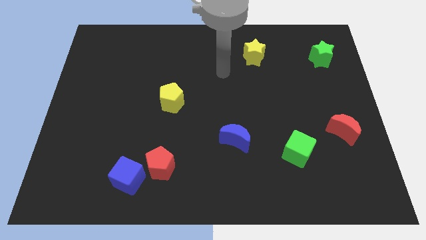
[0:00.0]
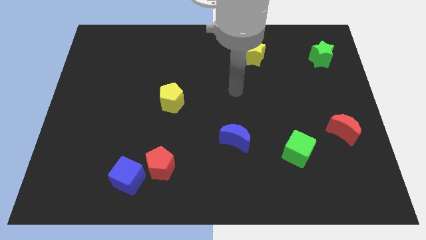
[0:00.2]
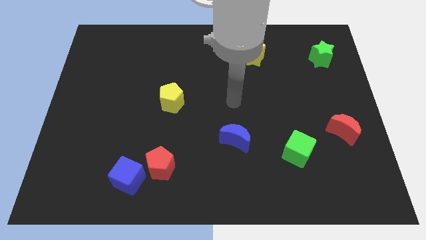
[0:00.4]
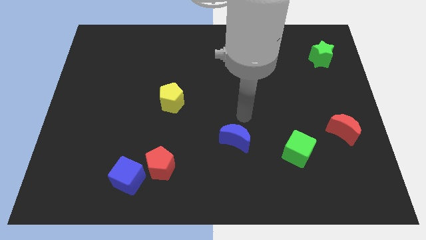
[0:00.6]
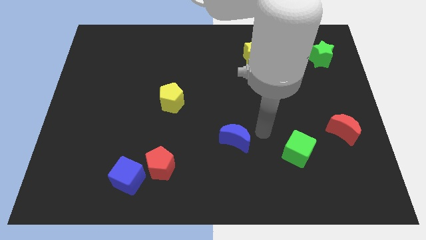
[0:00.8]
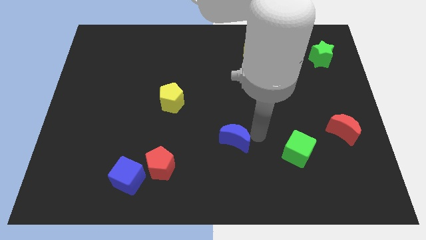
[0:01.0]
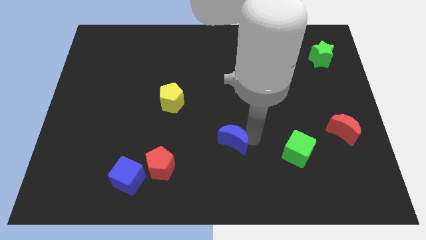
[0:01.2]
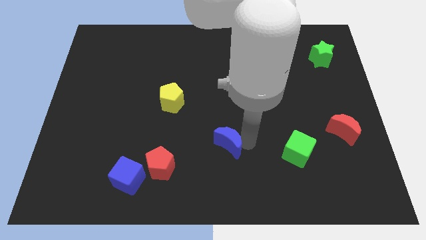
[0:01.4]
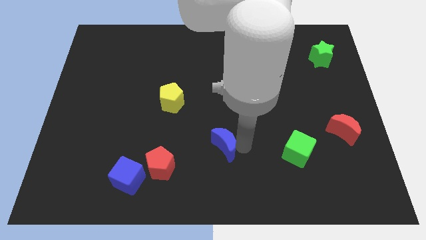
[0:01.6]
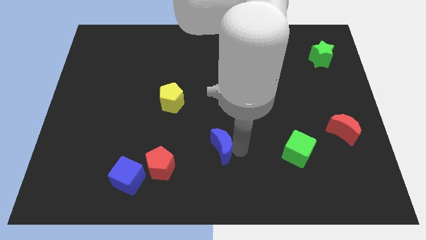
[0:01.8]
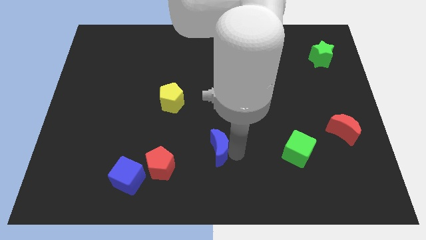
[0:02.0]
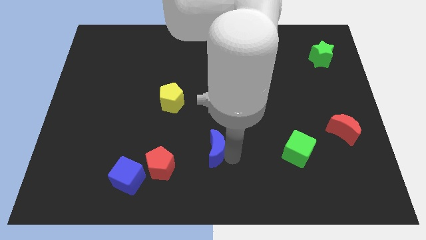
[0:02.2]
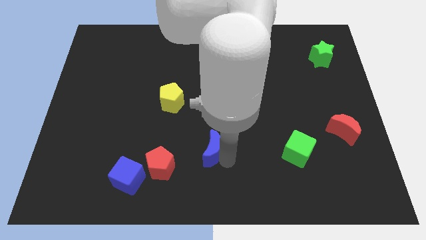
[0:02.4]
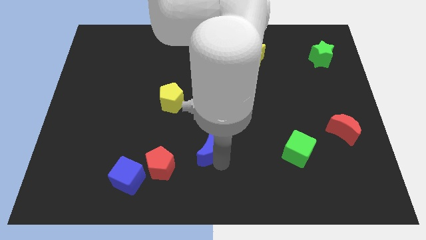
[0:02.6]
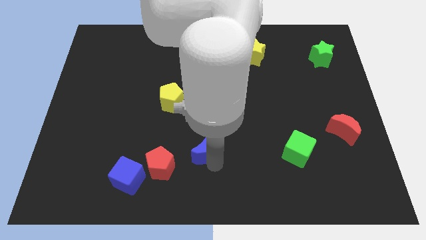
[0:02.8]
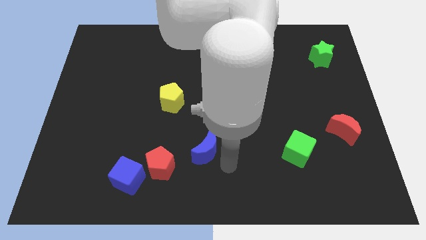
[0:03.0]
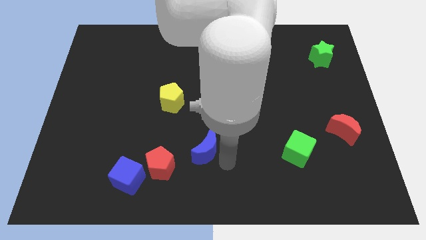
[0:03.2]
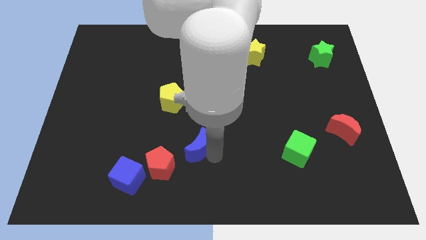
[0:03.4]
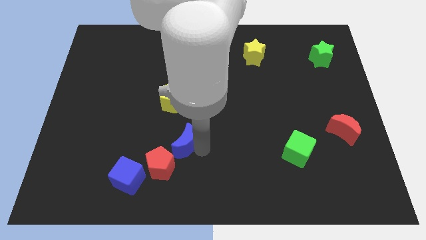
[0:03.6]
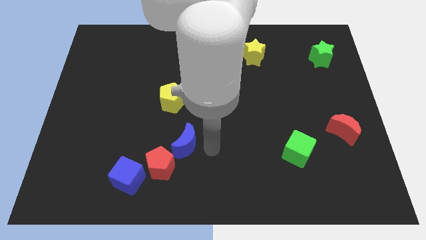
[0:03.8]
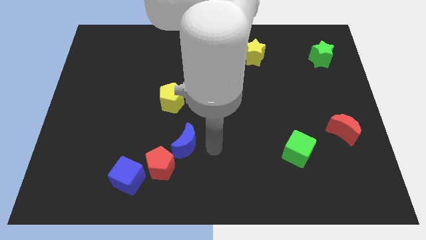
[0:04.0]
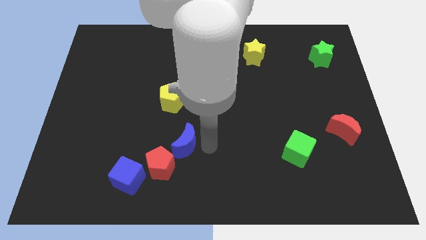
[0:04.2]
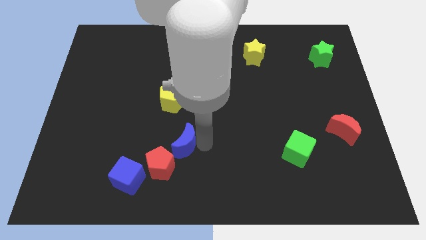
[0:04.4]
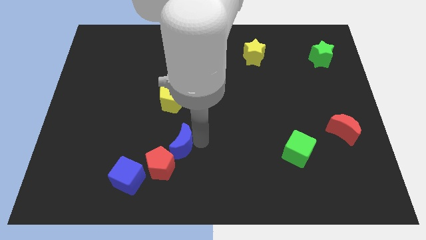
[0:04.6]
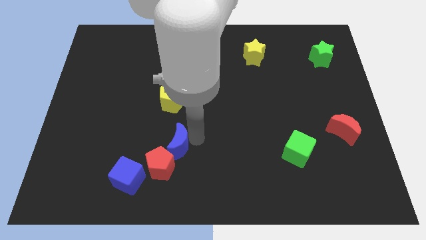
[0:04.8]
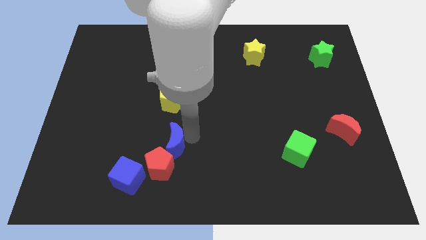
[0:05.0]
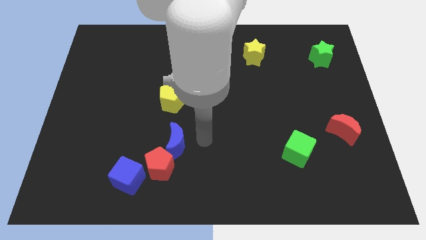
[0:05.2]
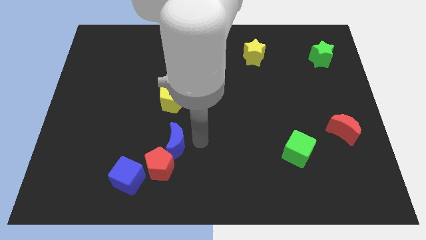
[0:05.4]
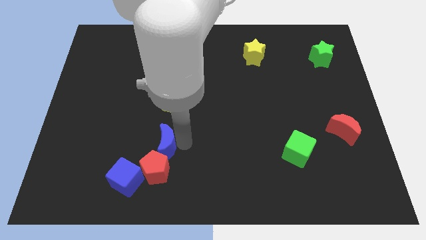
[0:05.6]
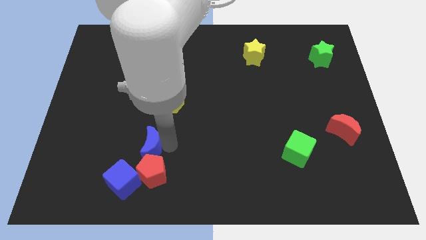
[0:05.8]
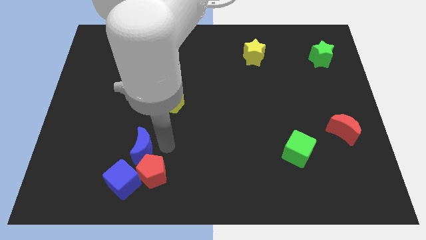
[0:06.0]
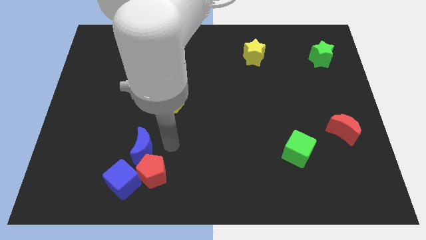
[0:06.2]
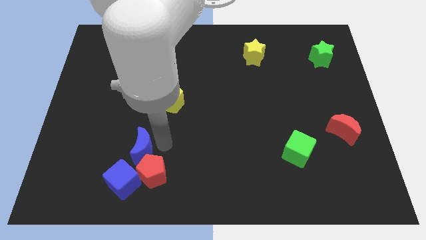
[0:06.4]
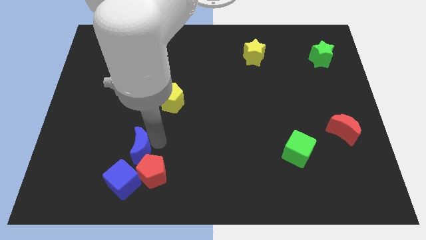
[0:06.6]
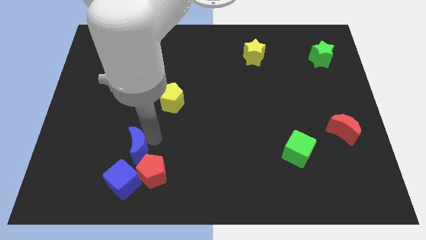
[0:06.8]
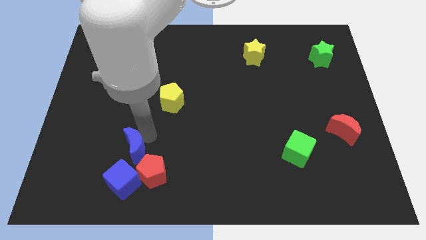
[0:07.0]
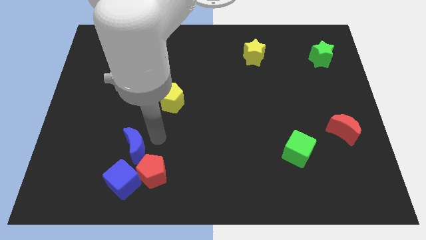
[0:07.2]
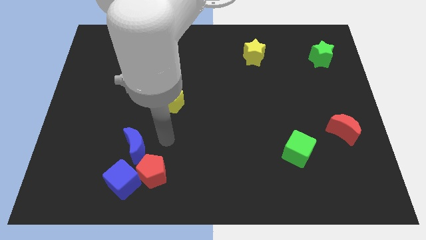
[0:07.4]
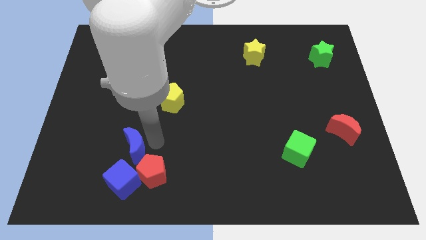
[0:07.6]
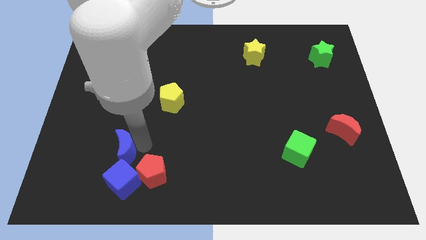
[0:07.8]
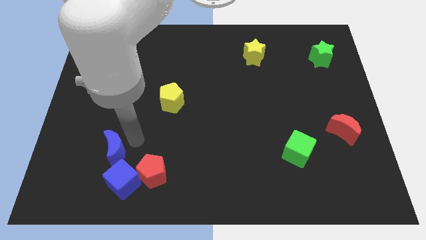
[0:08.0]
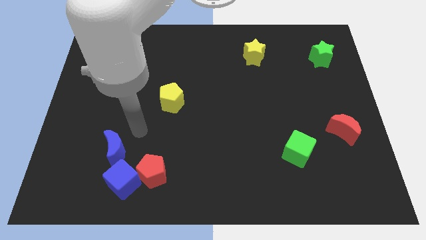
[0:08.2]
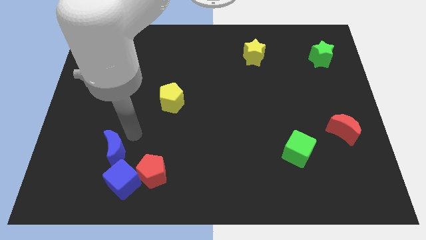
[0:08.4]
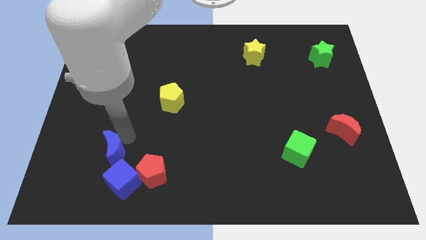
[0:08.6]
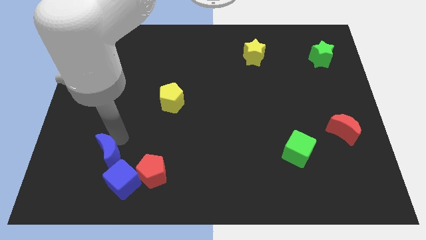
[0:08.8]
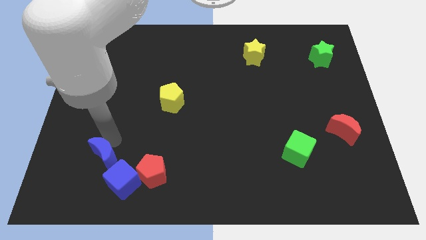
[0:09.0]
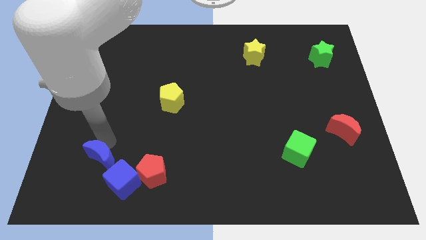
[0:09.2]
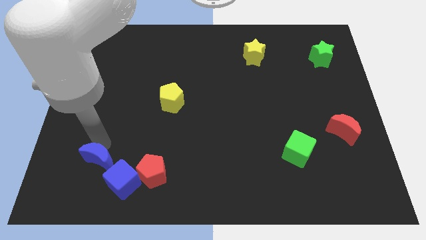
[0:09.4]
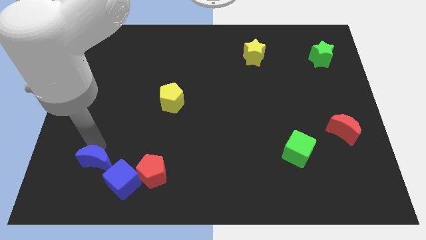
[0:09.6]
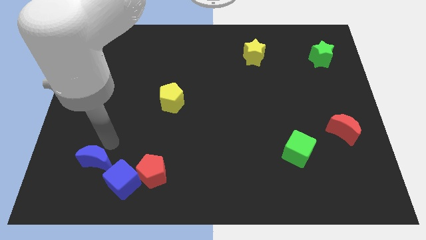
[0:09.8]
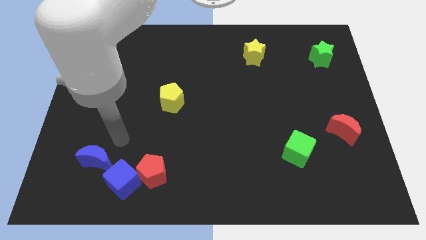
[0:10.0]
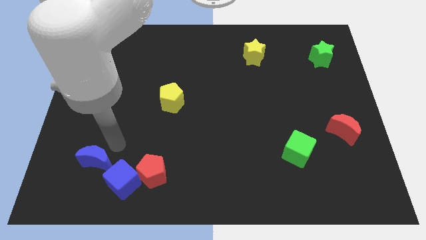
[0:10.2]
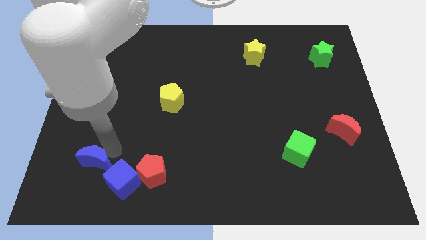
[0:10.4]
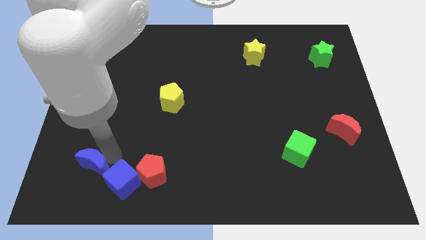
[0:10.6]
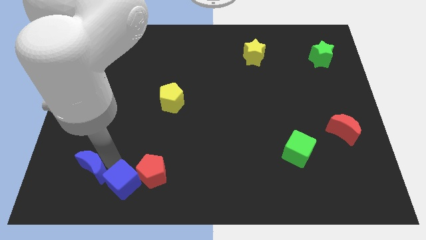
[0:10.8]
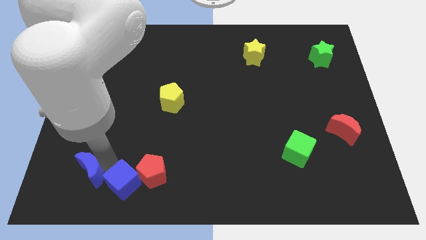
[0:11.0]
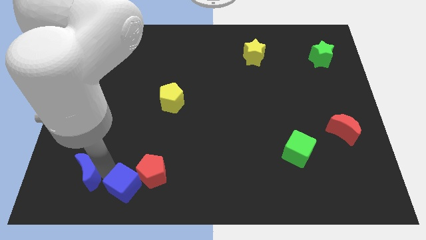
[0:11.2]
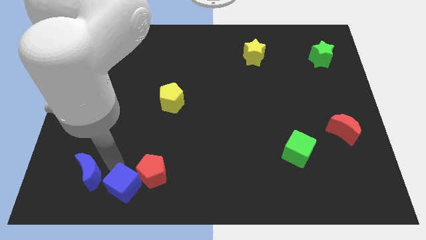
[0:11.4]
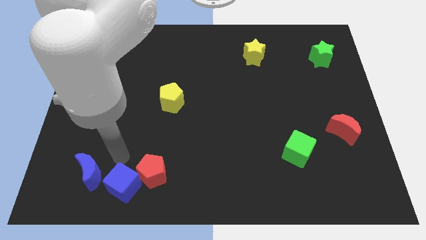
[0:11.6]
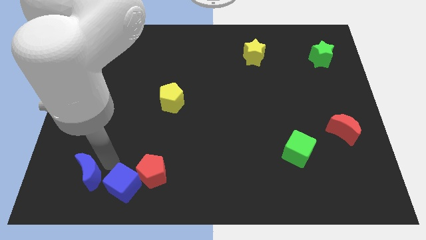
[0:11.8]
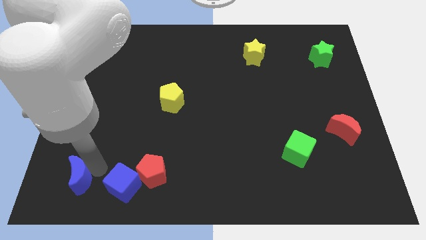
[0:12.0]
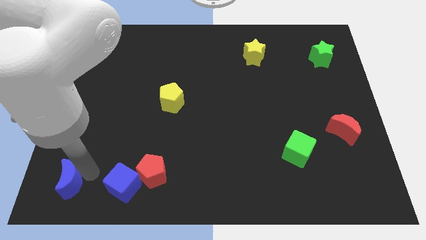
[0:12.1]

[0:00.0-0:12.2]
push the blue moon to the bottom left corner

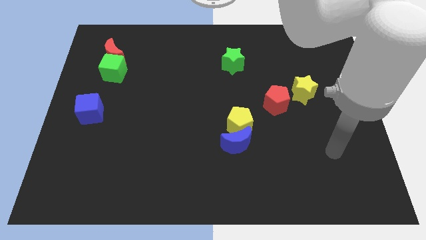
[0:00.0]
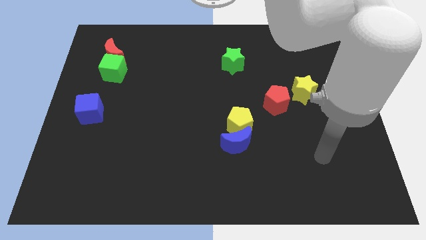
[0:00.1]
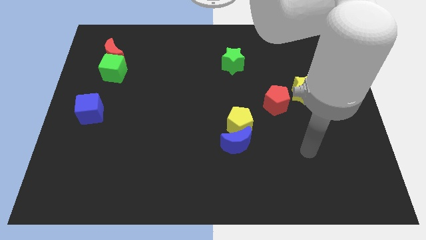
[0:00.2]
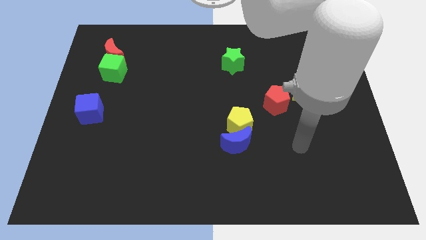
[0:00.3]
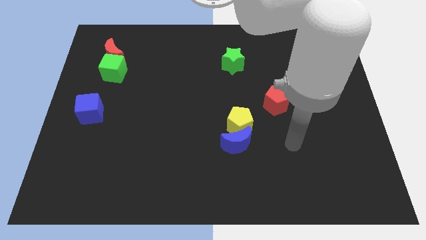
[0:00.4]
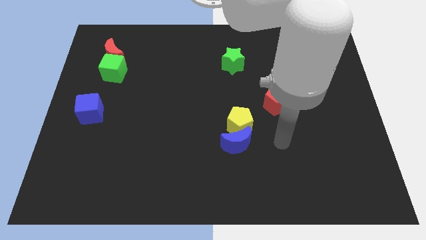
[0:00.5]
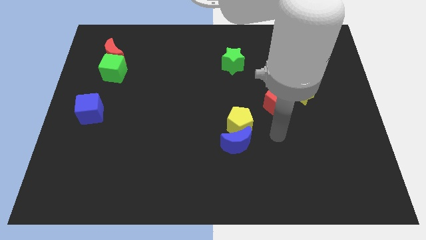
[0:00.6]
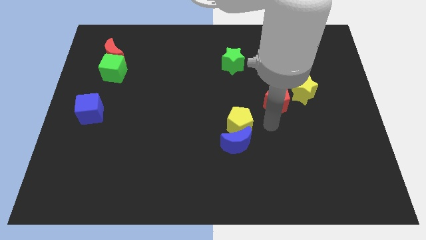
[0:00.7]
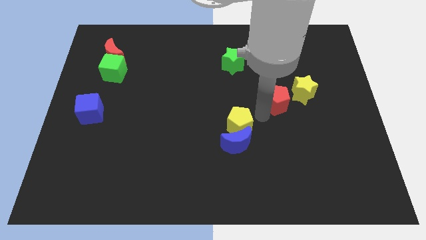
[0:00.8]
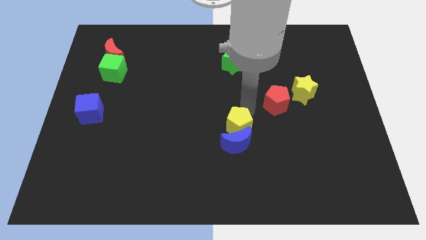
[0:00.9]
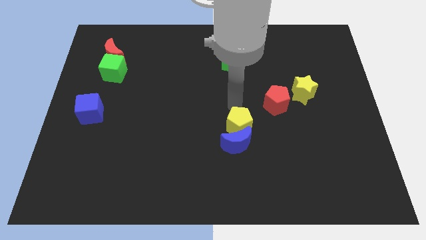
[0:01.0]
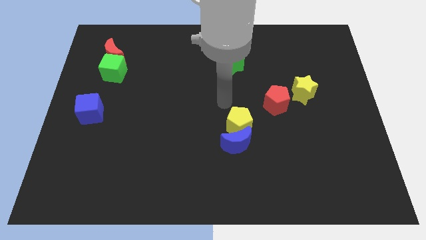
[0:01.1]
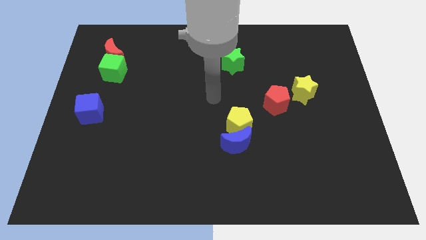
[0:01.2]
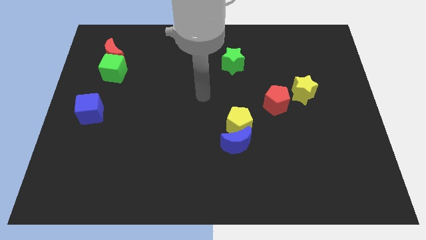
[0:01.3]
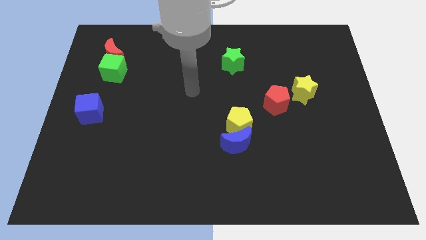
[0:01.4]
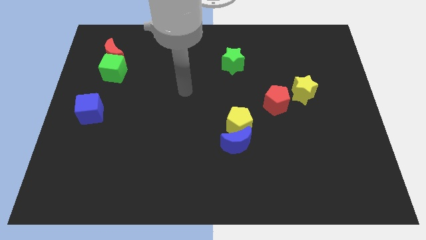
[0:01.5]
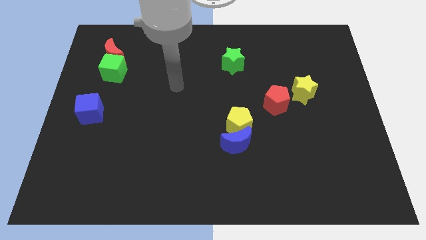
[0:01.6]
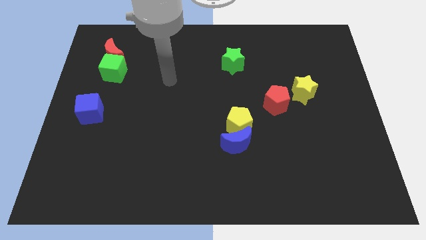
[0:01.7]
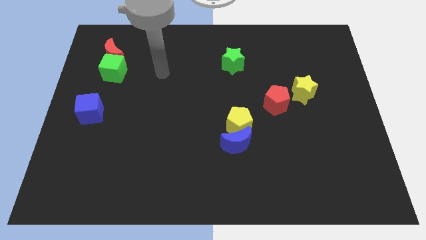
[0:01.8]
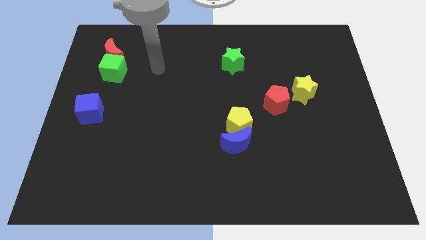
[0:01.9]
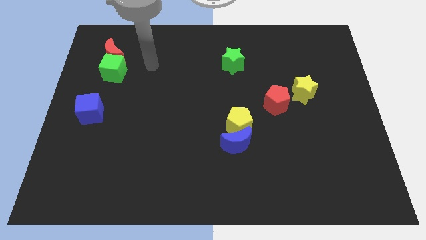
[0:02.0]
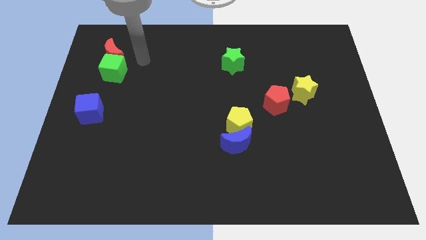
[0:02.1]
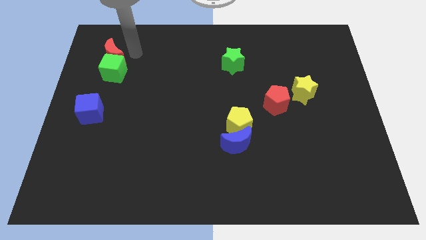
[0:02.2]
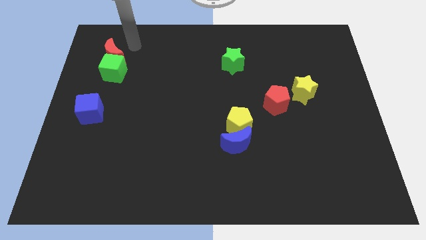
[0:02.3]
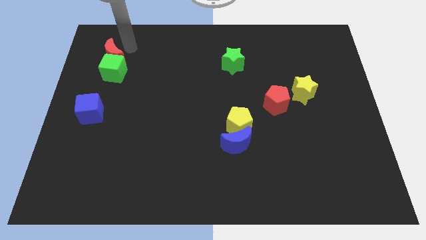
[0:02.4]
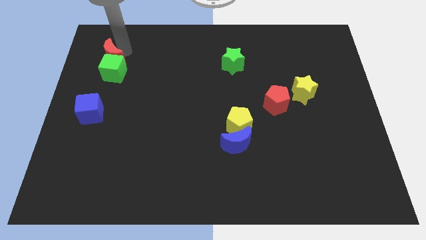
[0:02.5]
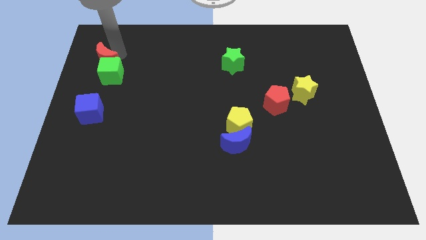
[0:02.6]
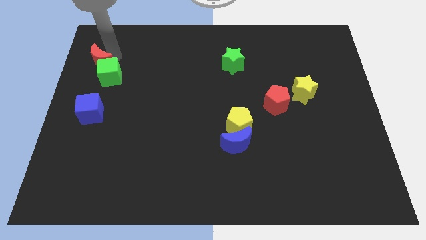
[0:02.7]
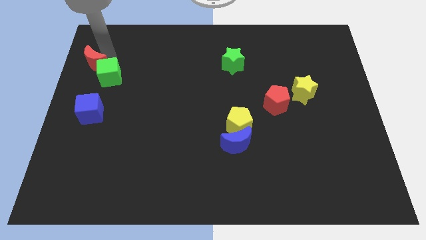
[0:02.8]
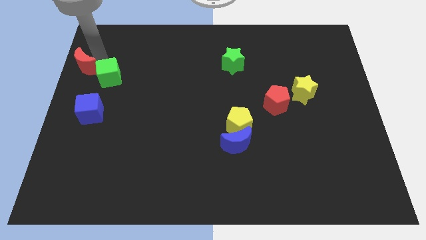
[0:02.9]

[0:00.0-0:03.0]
slide the red moon to the center left
